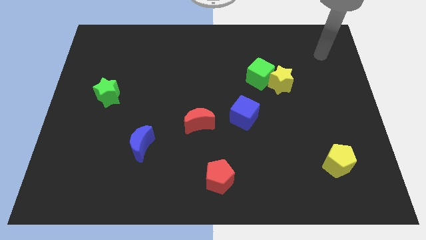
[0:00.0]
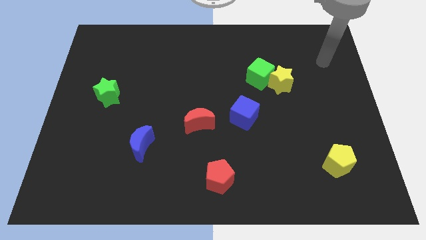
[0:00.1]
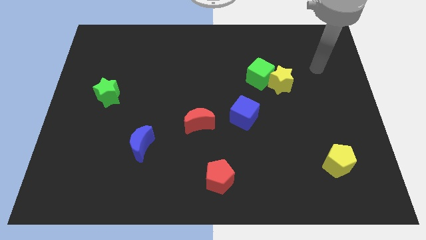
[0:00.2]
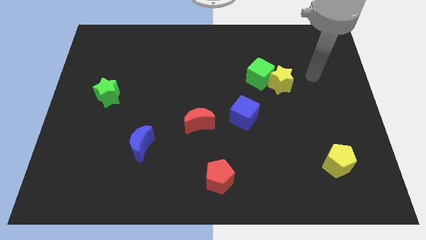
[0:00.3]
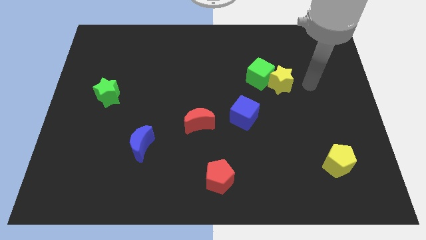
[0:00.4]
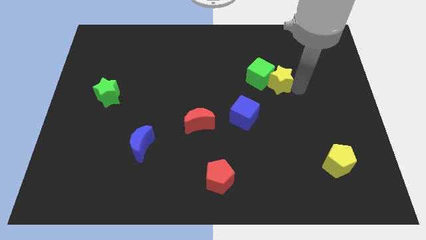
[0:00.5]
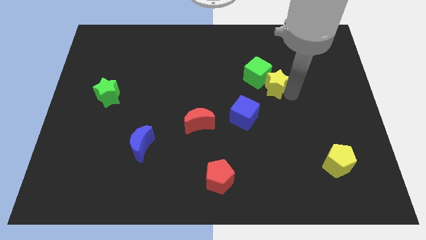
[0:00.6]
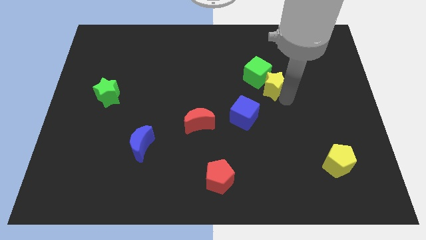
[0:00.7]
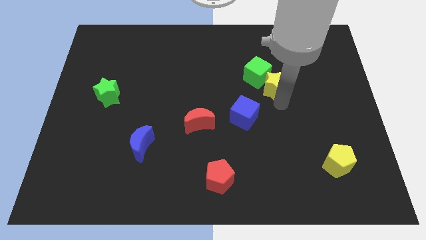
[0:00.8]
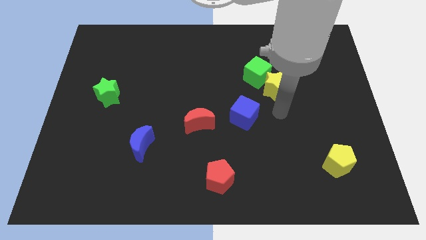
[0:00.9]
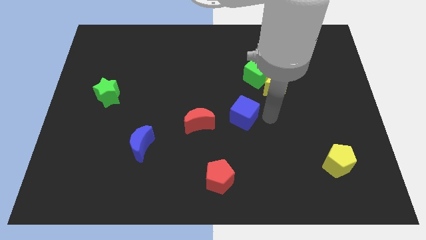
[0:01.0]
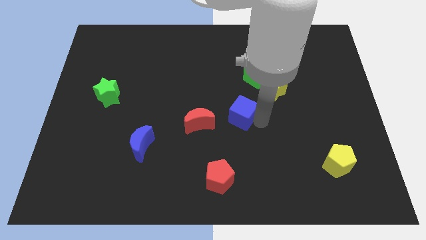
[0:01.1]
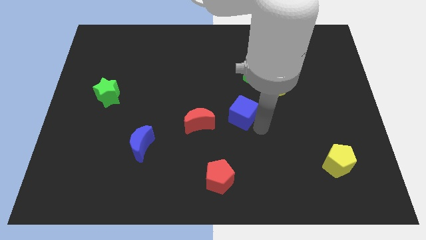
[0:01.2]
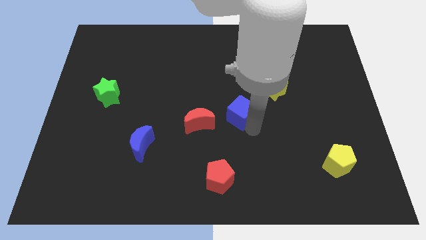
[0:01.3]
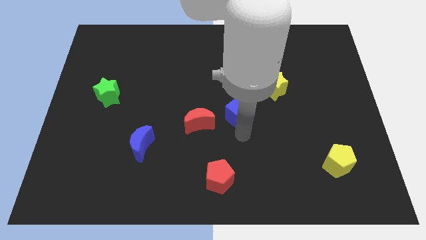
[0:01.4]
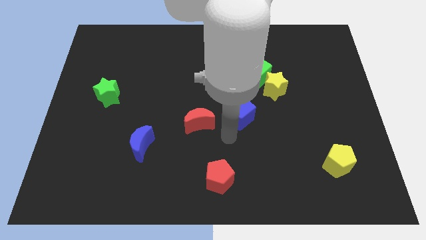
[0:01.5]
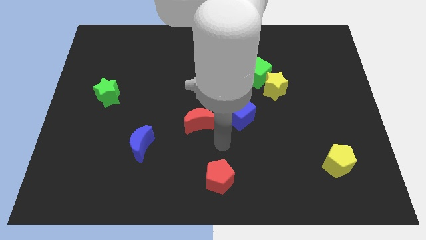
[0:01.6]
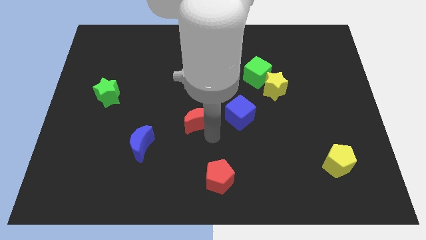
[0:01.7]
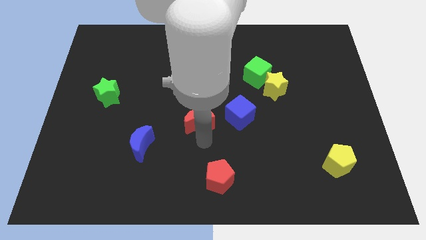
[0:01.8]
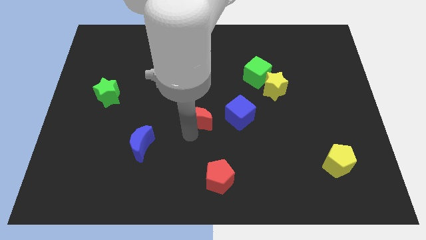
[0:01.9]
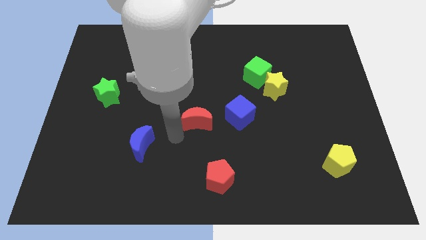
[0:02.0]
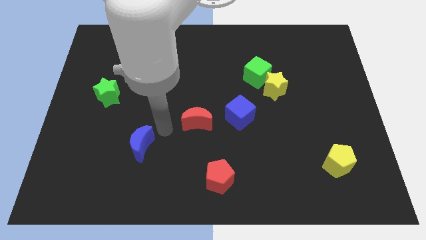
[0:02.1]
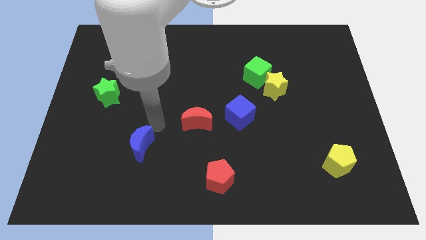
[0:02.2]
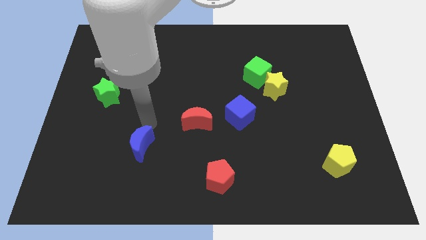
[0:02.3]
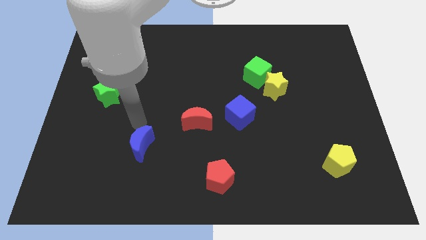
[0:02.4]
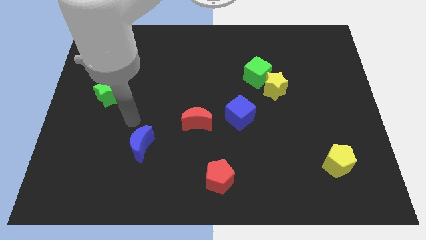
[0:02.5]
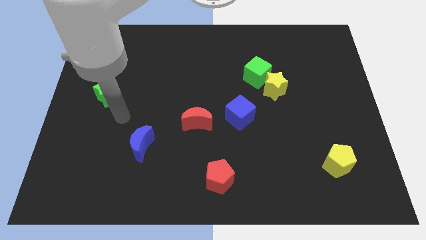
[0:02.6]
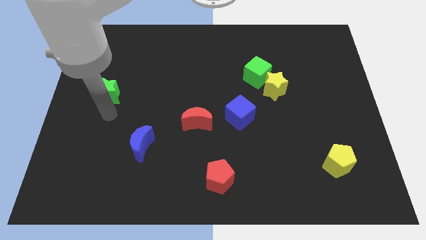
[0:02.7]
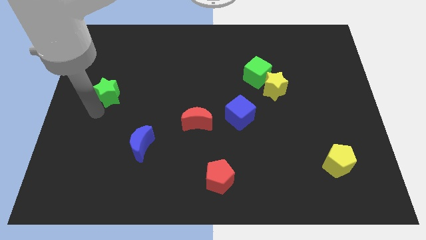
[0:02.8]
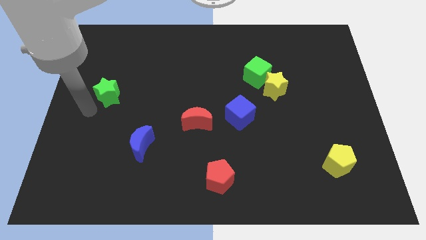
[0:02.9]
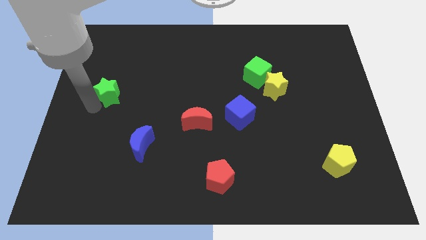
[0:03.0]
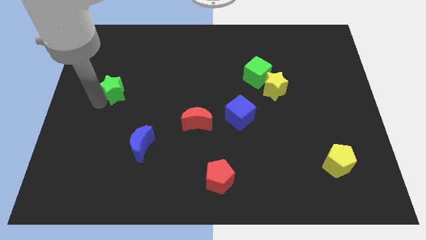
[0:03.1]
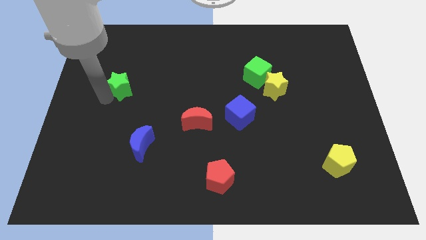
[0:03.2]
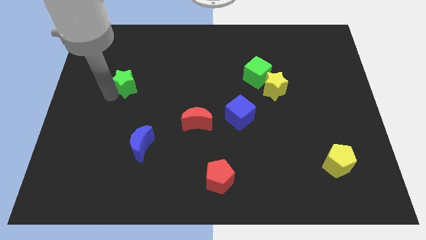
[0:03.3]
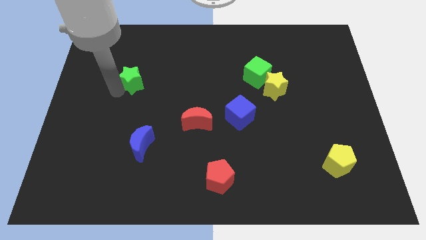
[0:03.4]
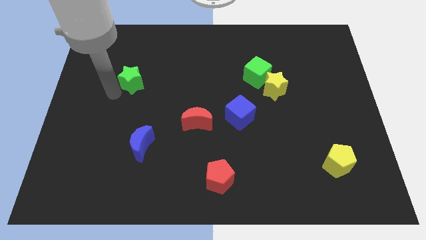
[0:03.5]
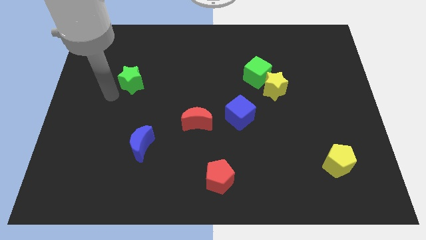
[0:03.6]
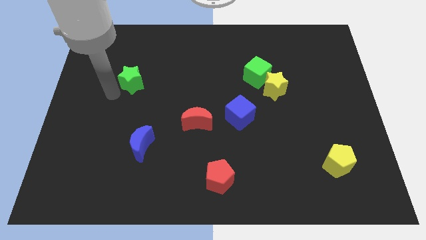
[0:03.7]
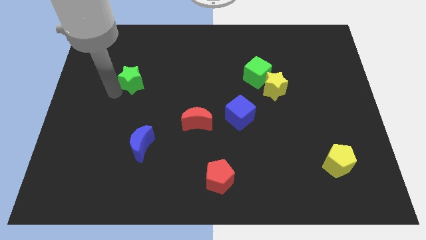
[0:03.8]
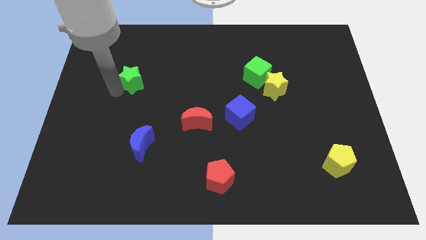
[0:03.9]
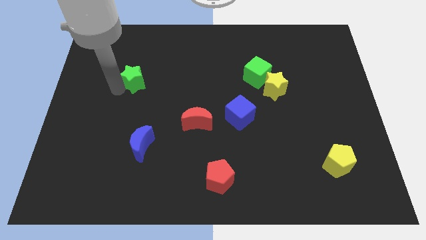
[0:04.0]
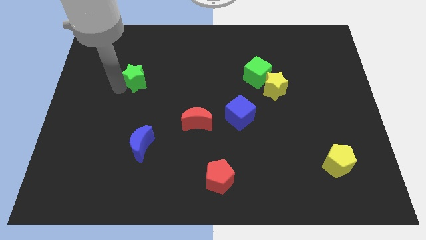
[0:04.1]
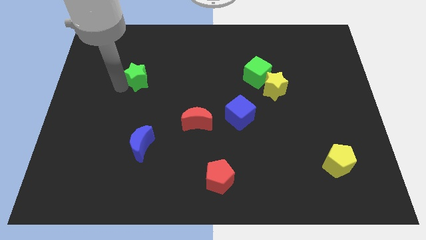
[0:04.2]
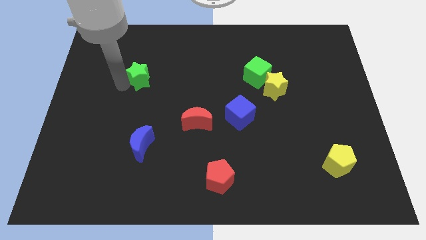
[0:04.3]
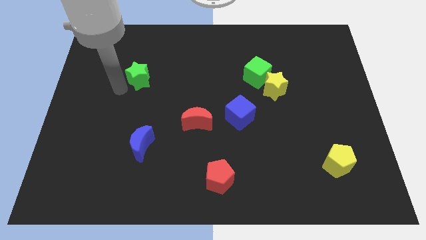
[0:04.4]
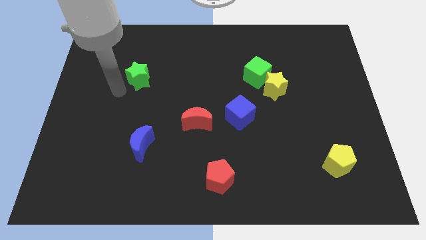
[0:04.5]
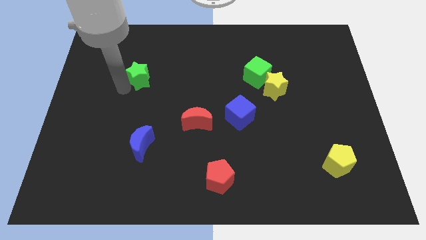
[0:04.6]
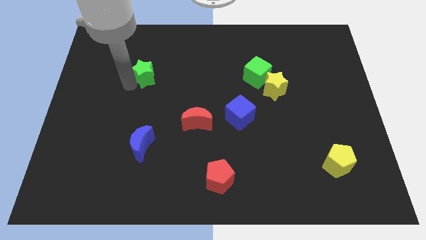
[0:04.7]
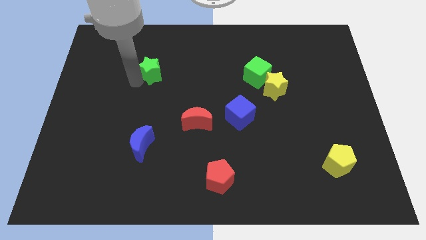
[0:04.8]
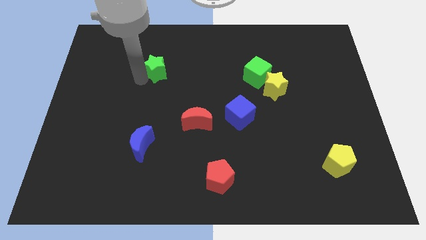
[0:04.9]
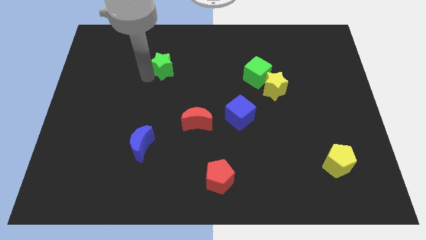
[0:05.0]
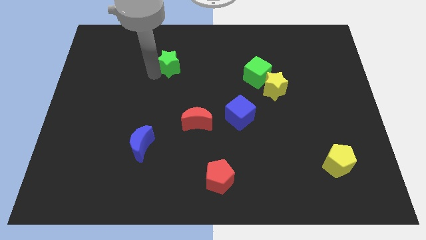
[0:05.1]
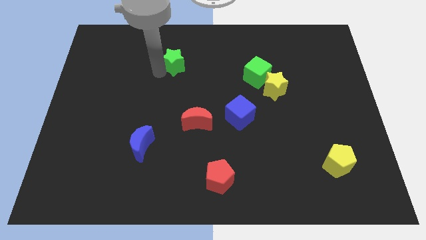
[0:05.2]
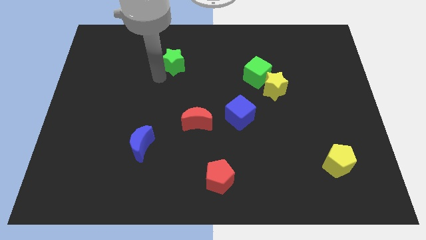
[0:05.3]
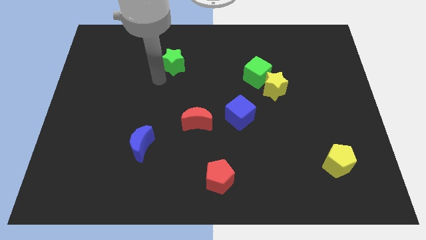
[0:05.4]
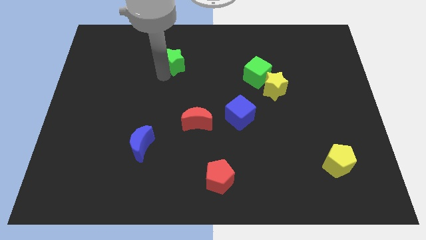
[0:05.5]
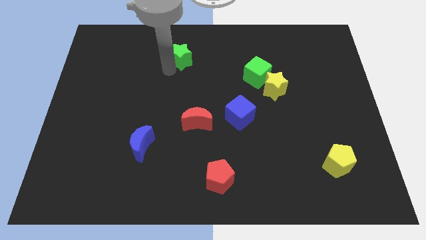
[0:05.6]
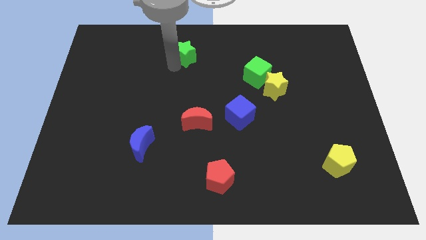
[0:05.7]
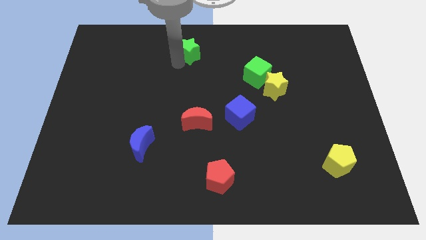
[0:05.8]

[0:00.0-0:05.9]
push the green star to the top side

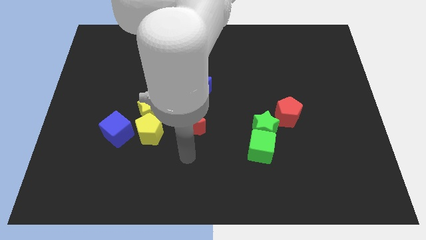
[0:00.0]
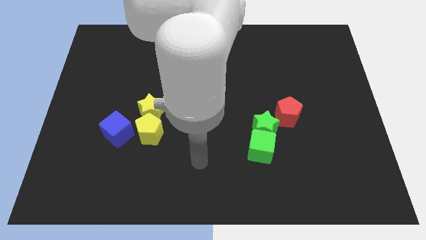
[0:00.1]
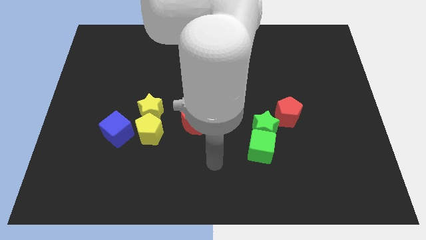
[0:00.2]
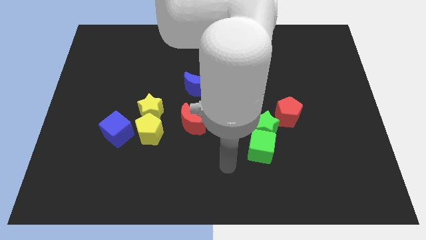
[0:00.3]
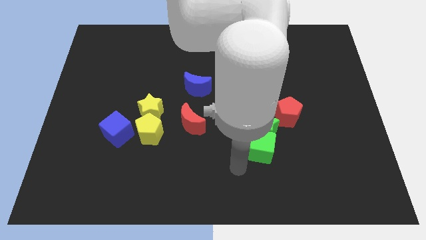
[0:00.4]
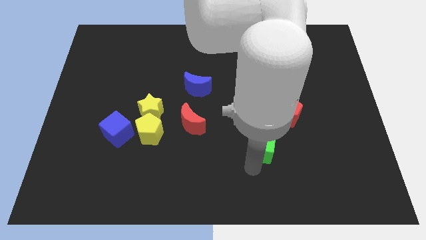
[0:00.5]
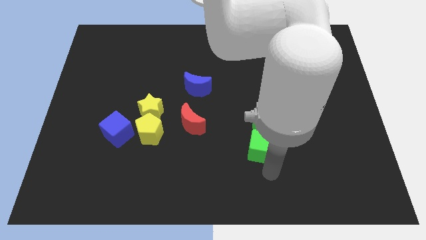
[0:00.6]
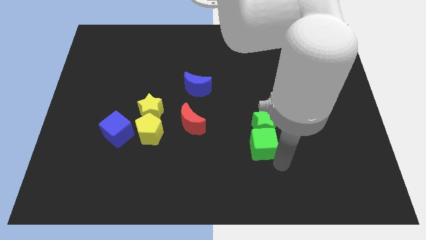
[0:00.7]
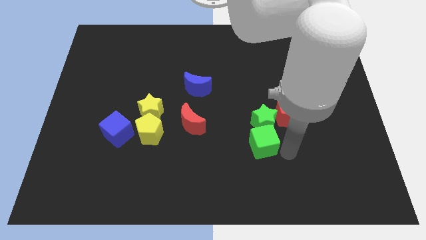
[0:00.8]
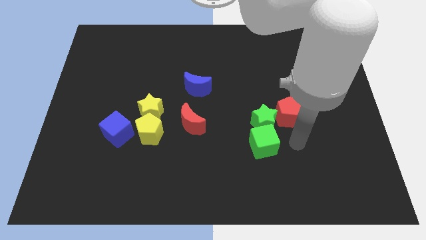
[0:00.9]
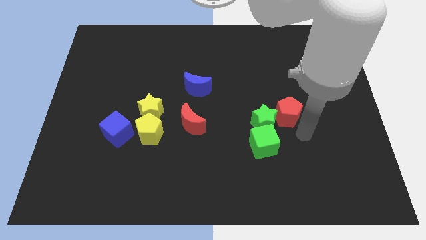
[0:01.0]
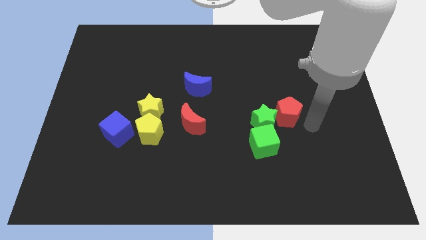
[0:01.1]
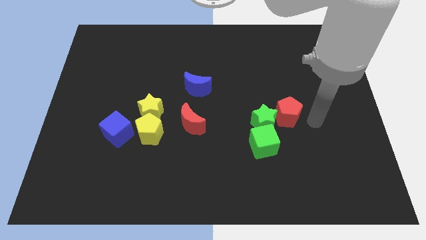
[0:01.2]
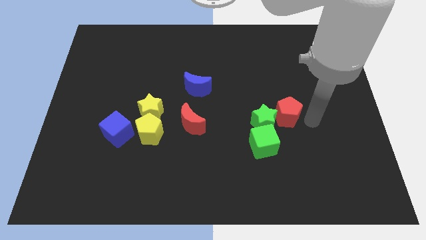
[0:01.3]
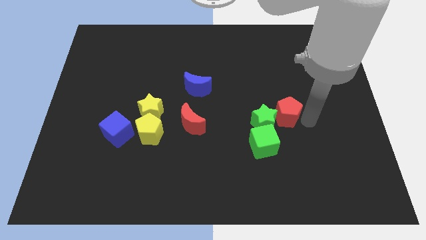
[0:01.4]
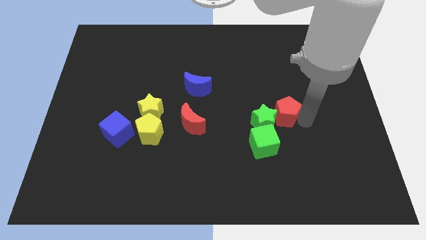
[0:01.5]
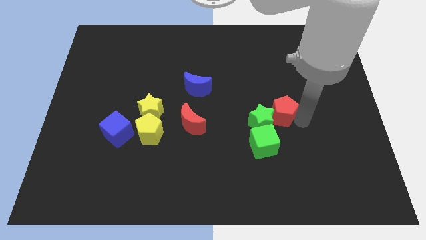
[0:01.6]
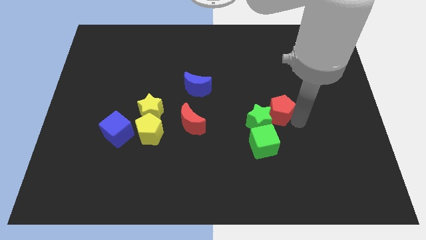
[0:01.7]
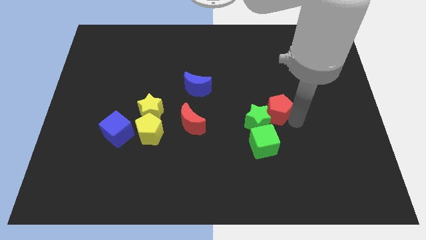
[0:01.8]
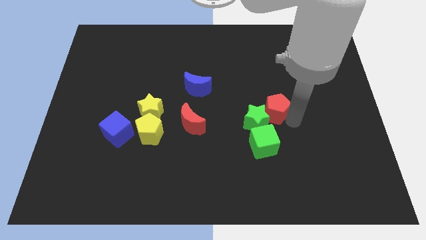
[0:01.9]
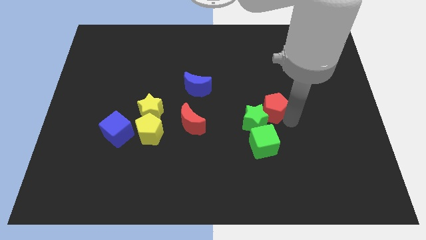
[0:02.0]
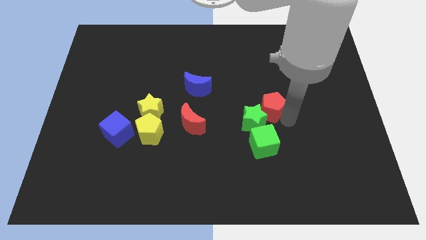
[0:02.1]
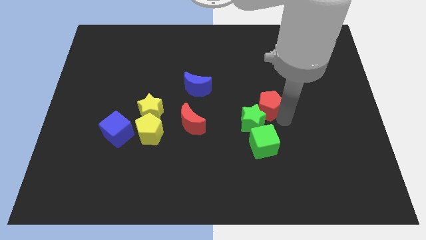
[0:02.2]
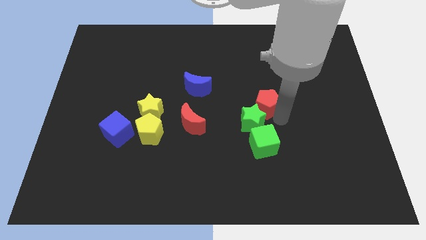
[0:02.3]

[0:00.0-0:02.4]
push the red pentagon to the middle
